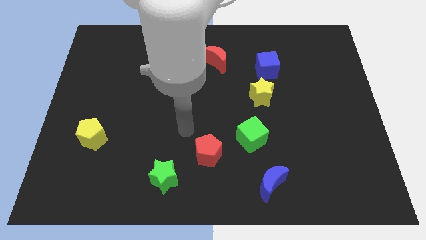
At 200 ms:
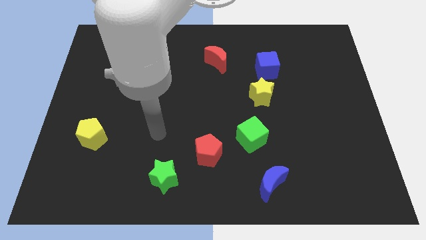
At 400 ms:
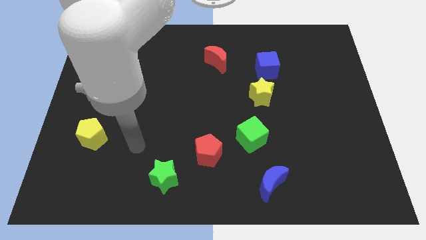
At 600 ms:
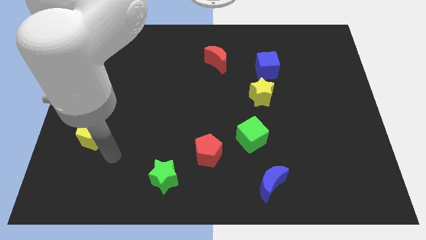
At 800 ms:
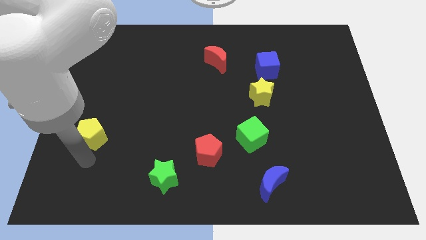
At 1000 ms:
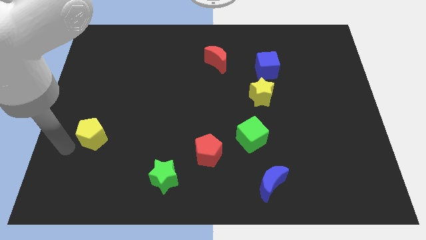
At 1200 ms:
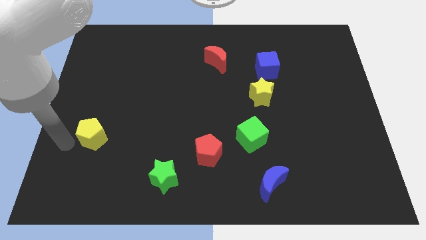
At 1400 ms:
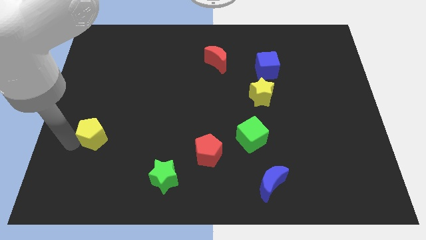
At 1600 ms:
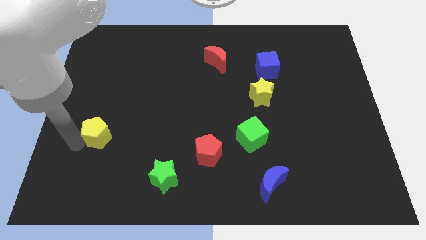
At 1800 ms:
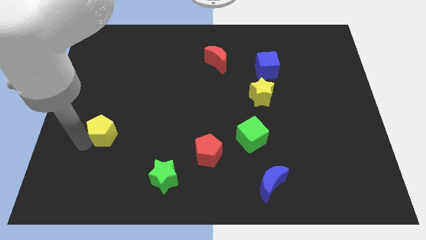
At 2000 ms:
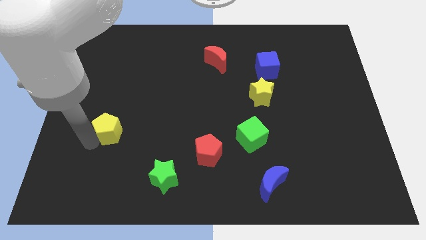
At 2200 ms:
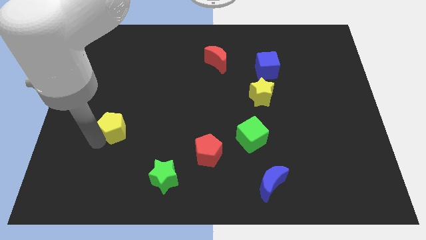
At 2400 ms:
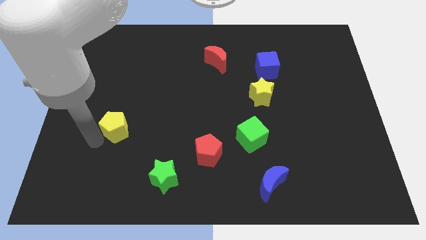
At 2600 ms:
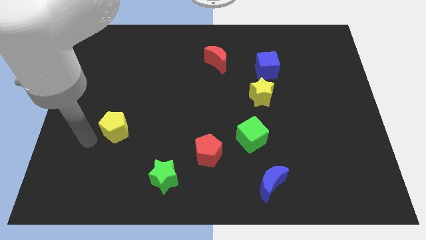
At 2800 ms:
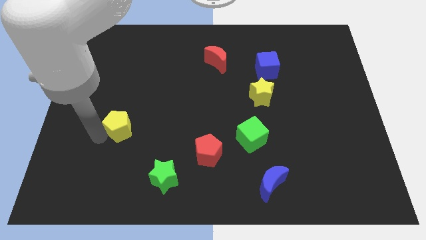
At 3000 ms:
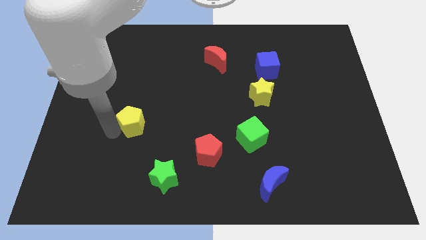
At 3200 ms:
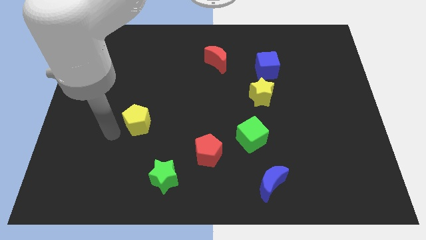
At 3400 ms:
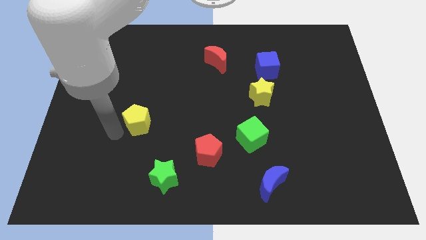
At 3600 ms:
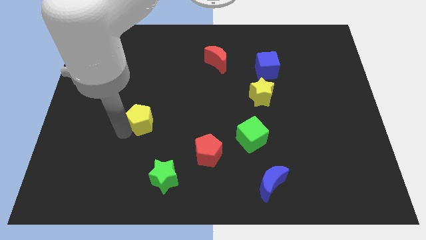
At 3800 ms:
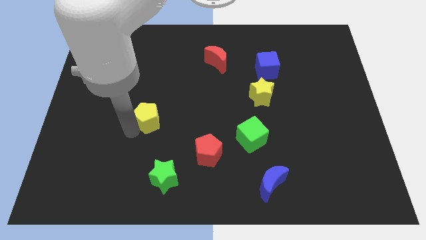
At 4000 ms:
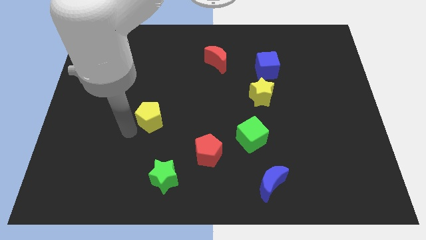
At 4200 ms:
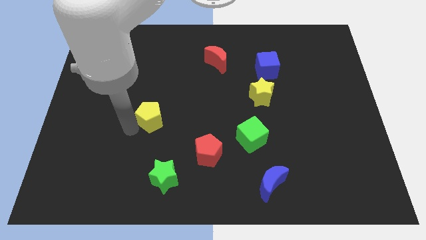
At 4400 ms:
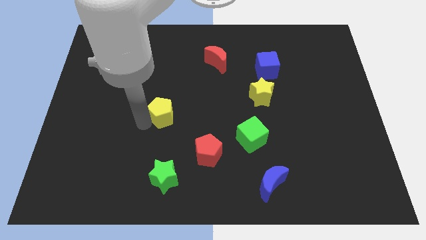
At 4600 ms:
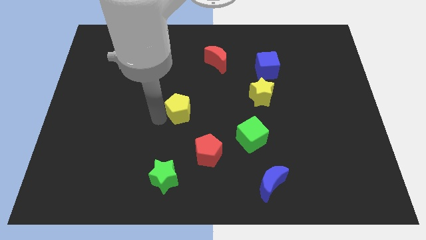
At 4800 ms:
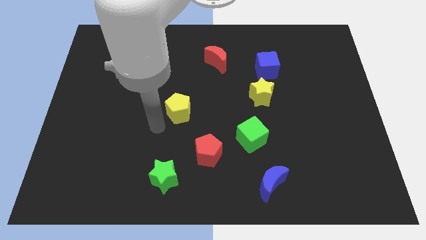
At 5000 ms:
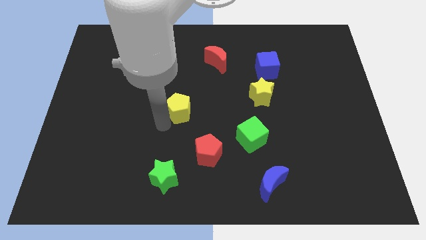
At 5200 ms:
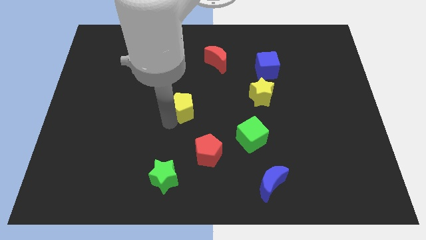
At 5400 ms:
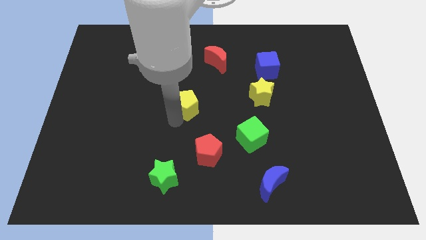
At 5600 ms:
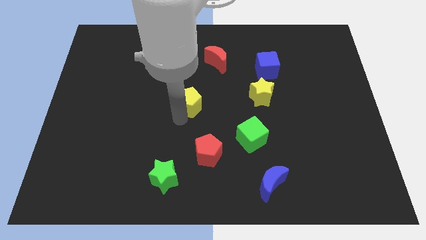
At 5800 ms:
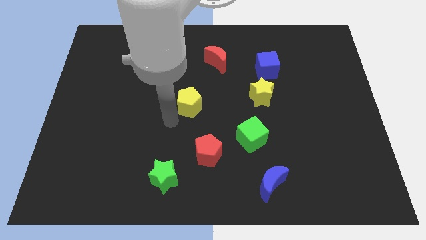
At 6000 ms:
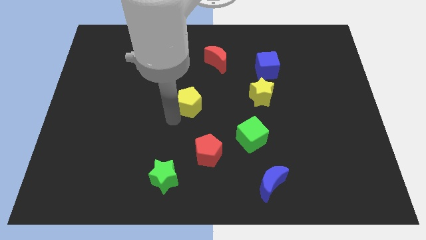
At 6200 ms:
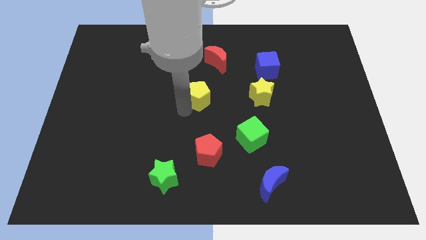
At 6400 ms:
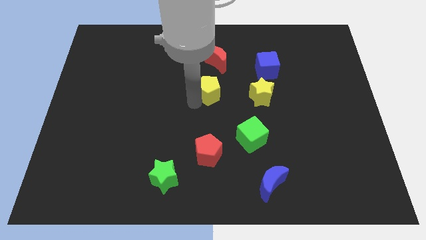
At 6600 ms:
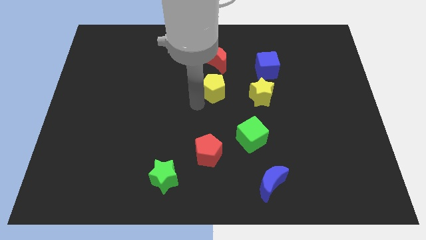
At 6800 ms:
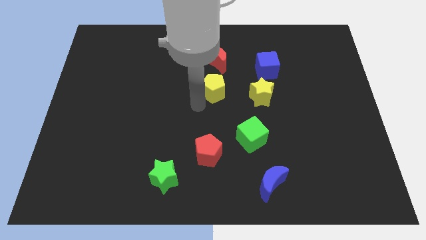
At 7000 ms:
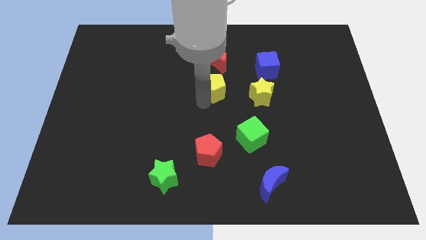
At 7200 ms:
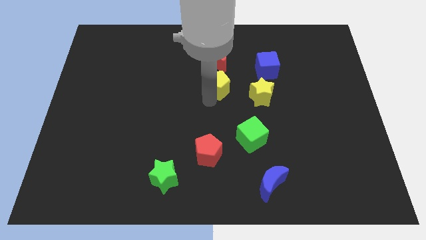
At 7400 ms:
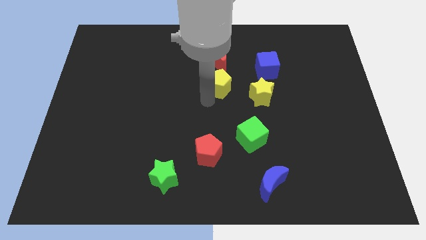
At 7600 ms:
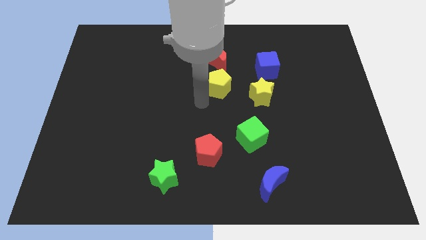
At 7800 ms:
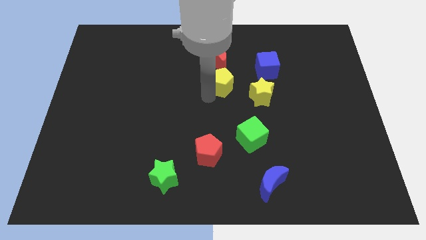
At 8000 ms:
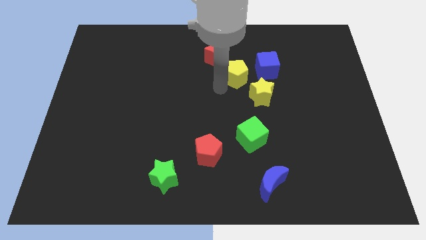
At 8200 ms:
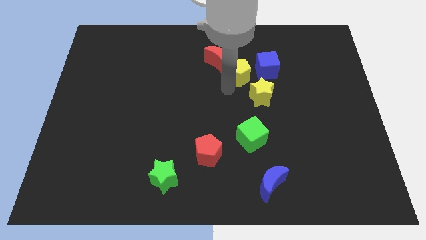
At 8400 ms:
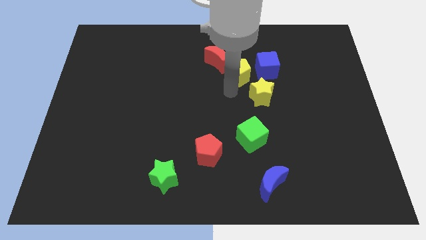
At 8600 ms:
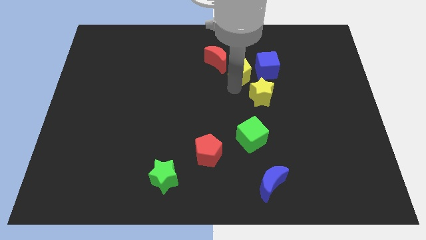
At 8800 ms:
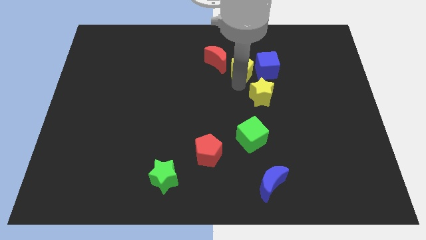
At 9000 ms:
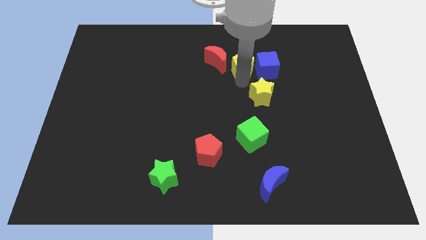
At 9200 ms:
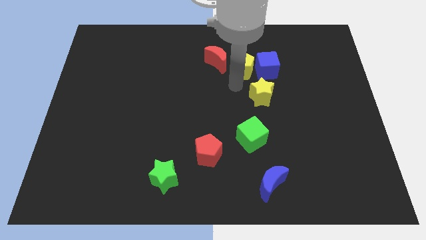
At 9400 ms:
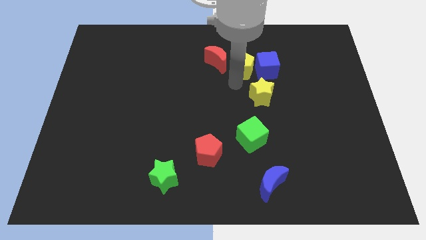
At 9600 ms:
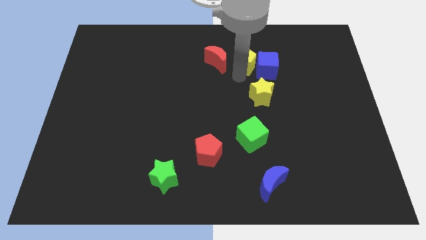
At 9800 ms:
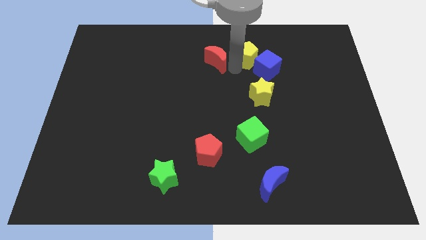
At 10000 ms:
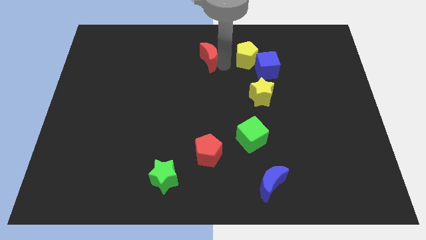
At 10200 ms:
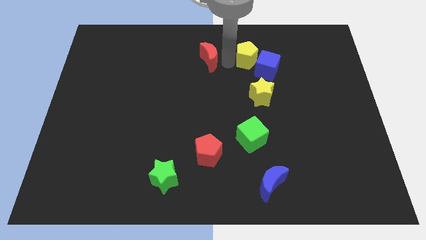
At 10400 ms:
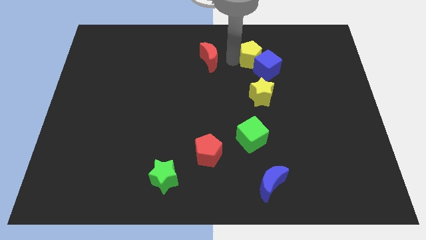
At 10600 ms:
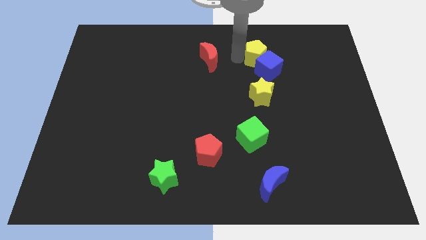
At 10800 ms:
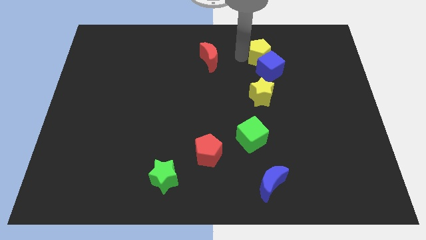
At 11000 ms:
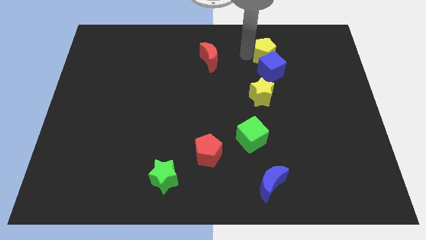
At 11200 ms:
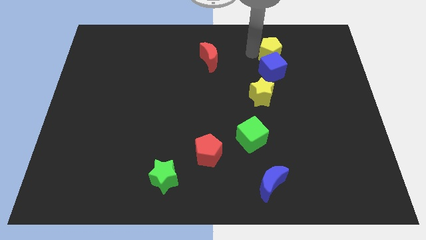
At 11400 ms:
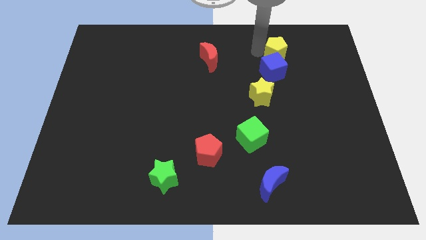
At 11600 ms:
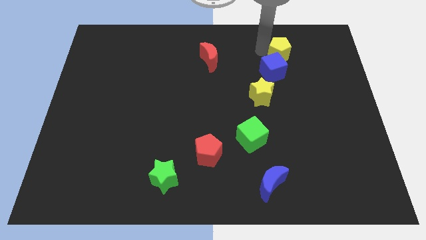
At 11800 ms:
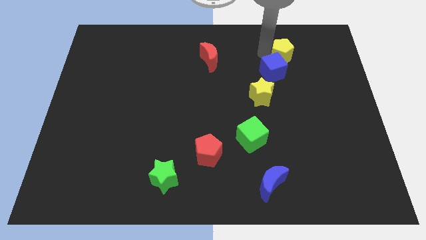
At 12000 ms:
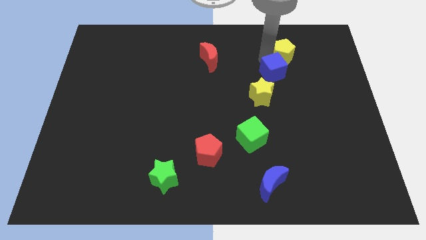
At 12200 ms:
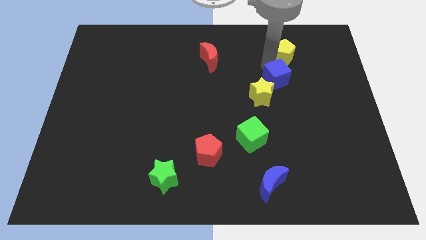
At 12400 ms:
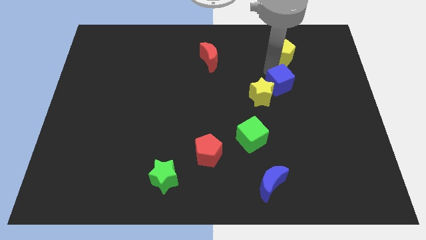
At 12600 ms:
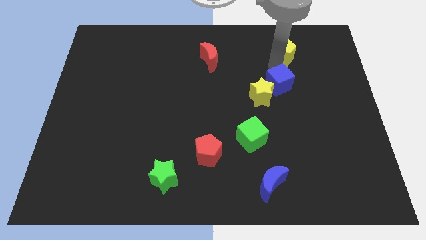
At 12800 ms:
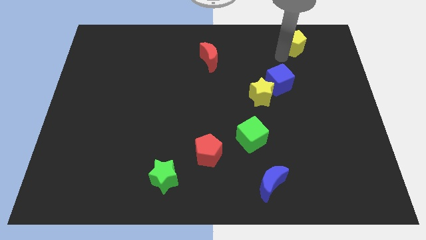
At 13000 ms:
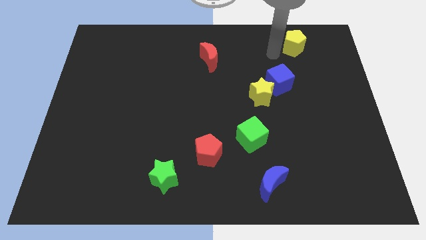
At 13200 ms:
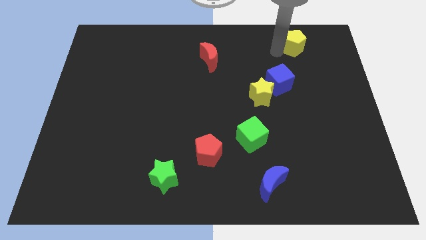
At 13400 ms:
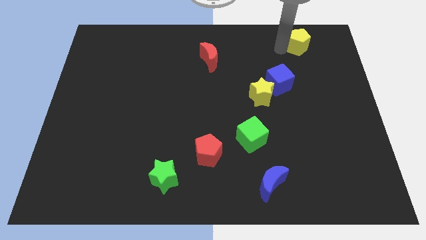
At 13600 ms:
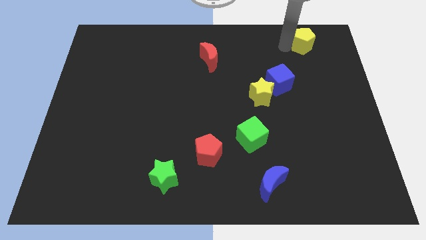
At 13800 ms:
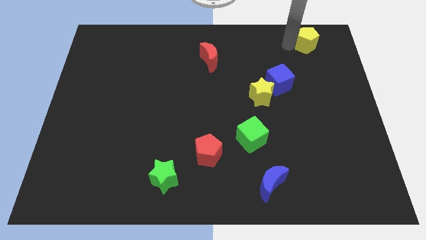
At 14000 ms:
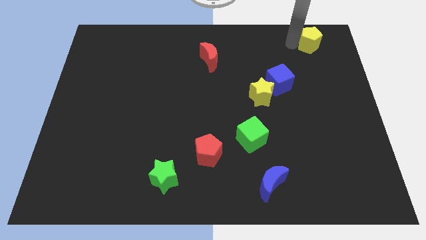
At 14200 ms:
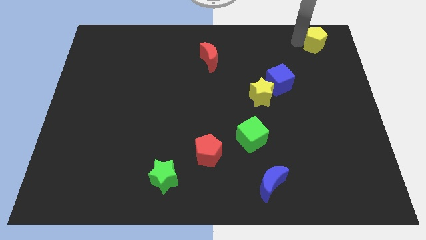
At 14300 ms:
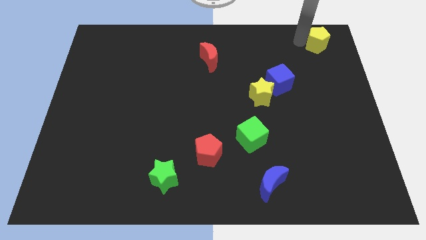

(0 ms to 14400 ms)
slide the yellow pentagon to the top right corner
